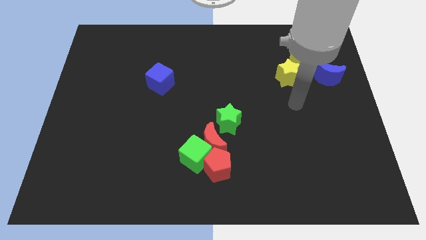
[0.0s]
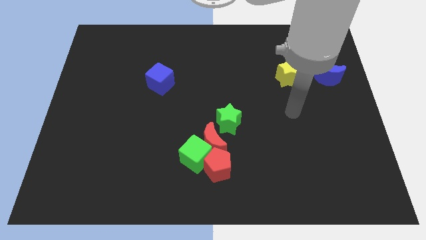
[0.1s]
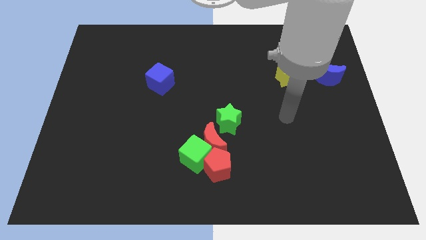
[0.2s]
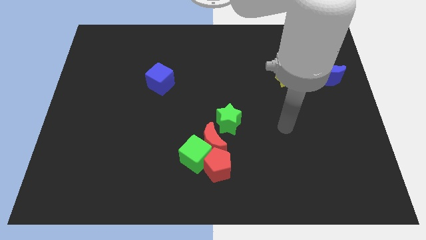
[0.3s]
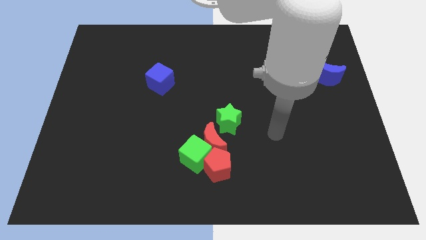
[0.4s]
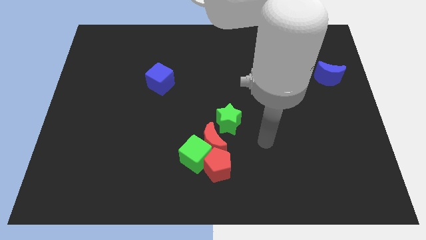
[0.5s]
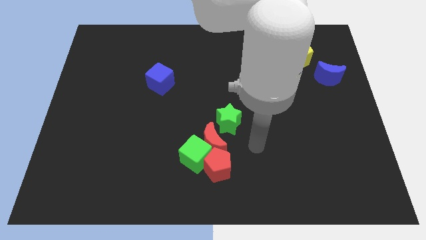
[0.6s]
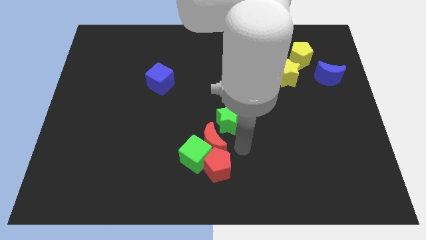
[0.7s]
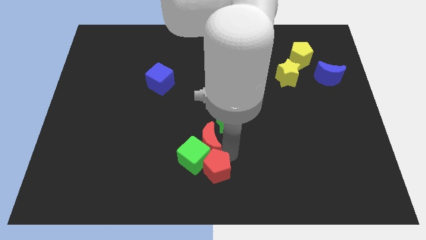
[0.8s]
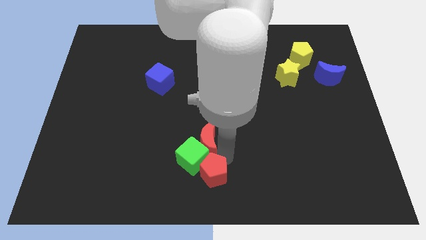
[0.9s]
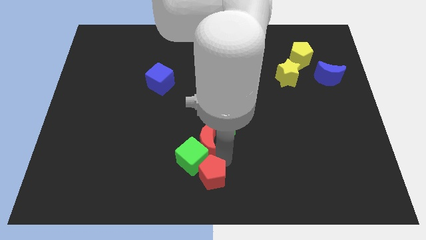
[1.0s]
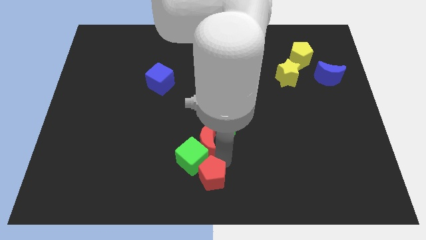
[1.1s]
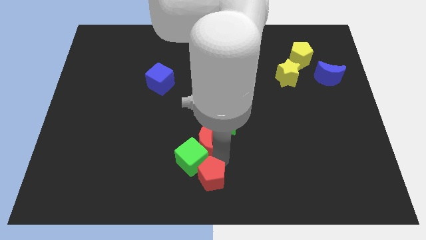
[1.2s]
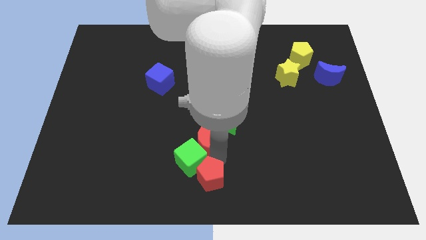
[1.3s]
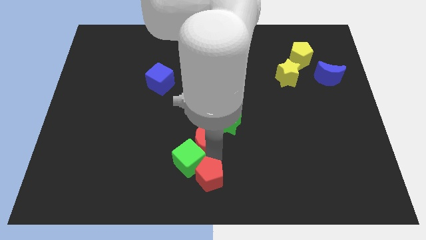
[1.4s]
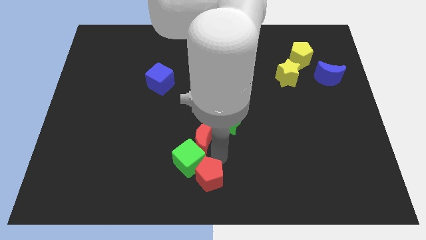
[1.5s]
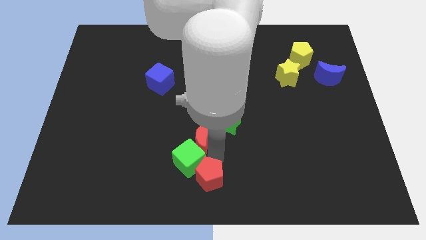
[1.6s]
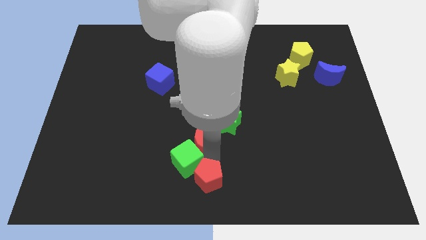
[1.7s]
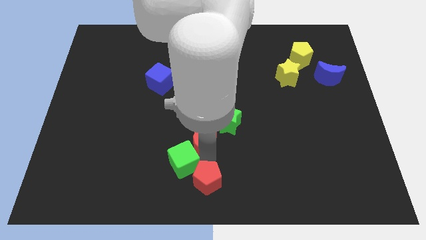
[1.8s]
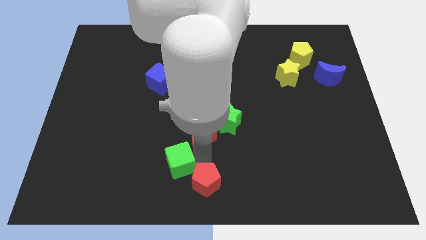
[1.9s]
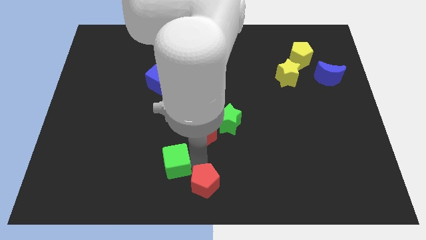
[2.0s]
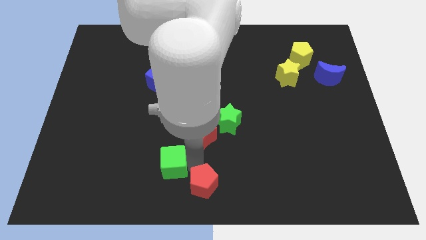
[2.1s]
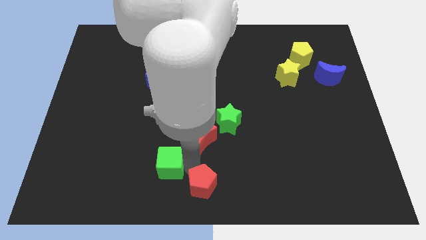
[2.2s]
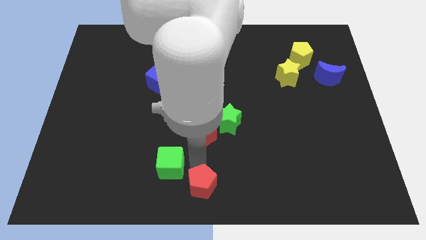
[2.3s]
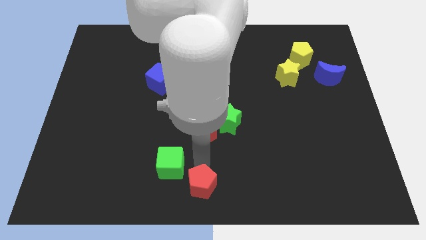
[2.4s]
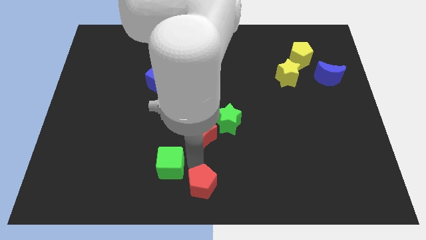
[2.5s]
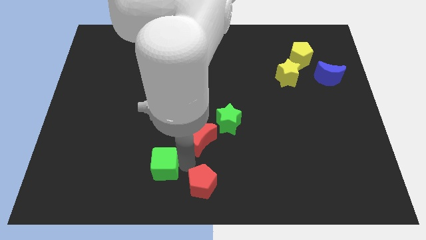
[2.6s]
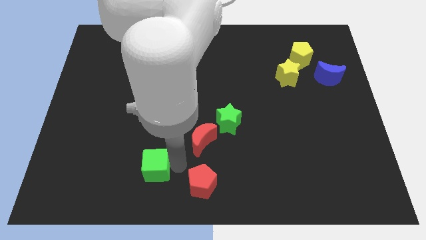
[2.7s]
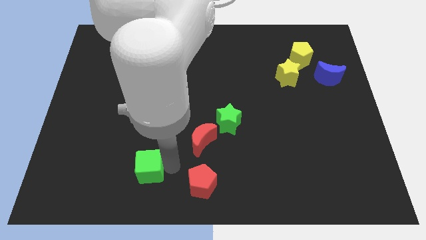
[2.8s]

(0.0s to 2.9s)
separate the green cube from the red moon and red pentagon

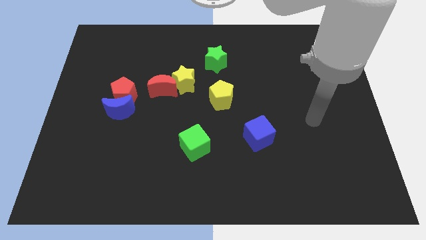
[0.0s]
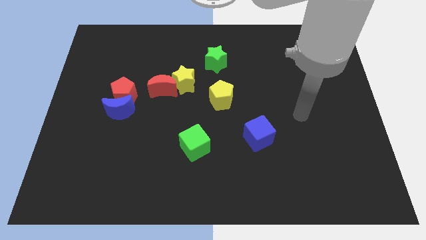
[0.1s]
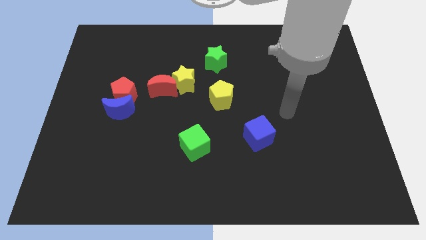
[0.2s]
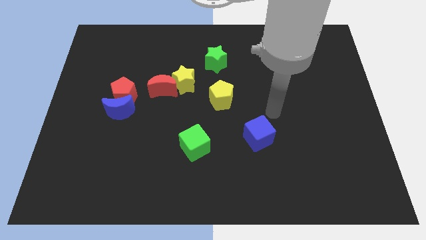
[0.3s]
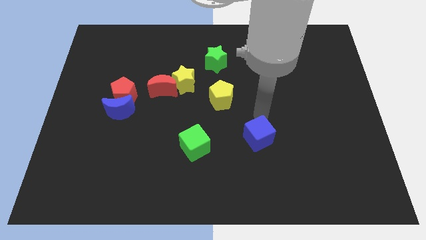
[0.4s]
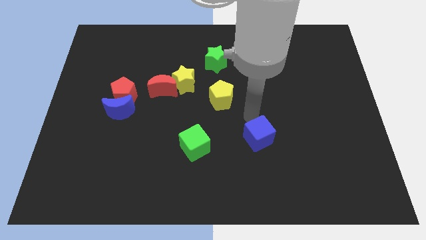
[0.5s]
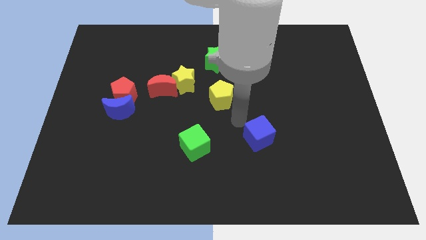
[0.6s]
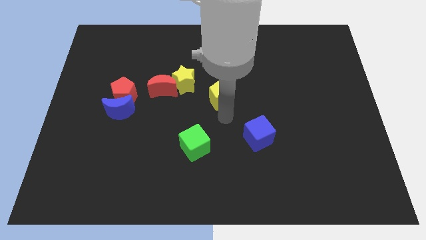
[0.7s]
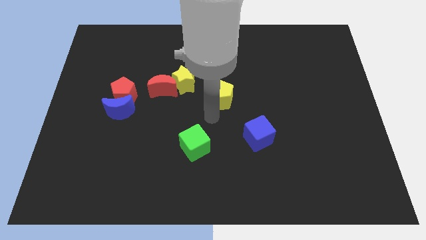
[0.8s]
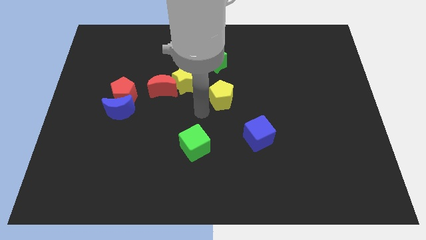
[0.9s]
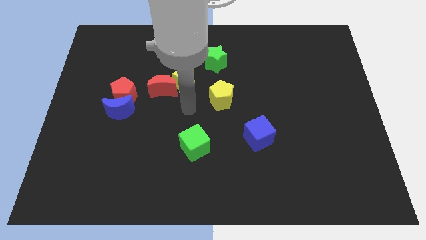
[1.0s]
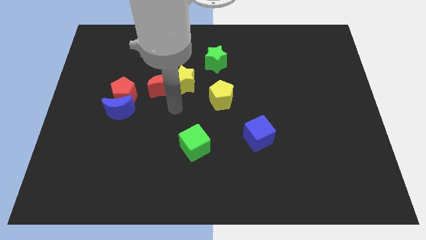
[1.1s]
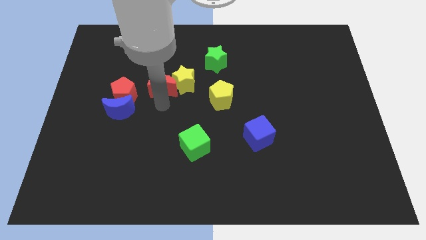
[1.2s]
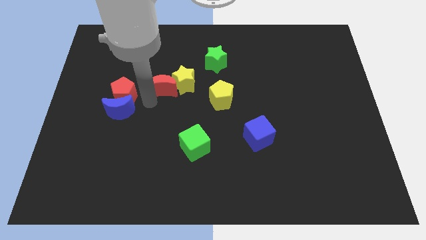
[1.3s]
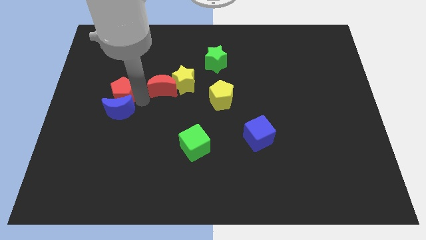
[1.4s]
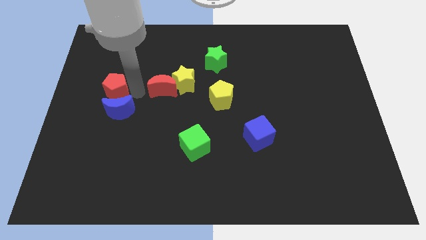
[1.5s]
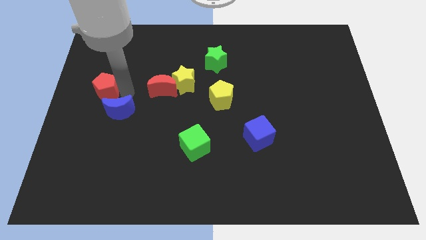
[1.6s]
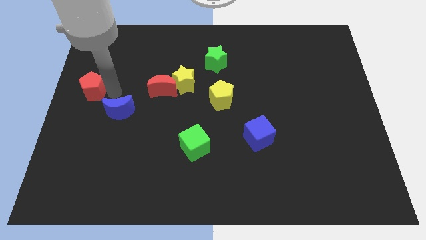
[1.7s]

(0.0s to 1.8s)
separate the blue moon from the red pentagon

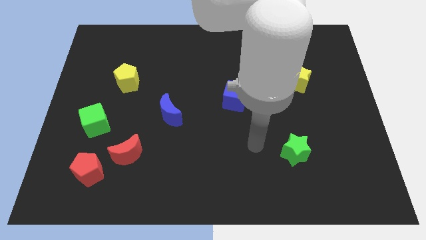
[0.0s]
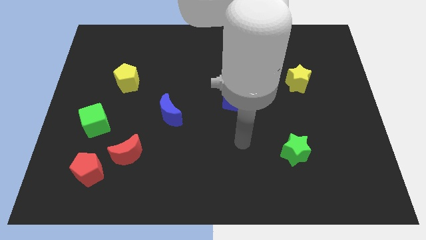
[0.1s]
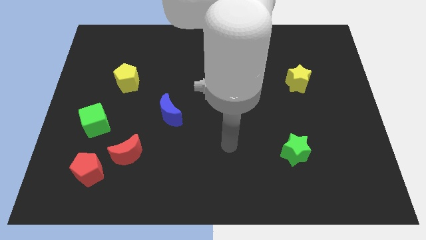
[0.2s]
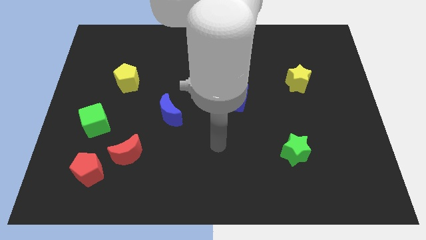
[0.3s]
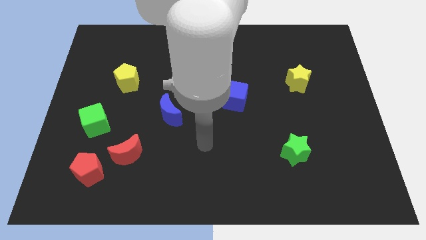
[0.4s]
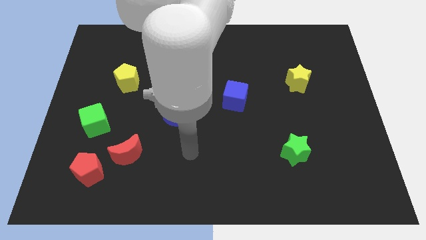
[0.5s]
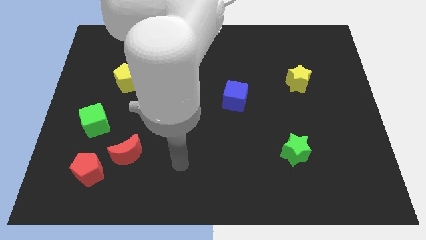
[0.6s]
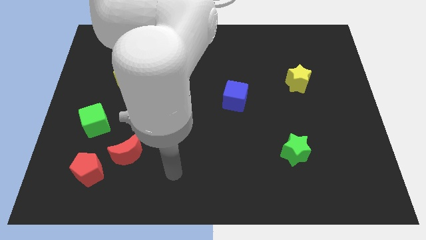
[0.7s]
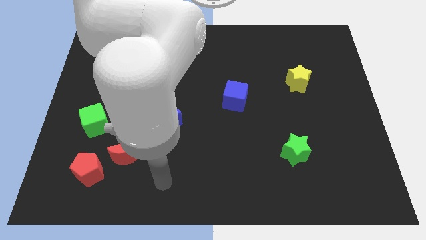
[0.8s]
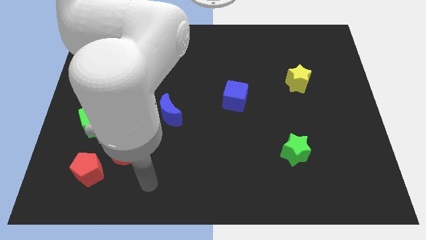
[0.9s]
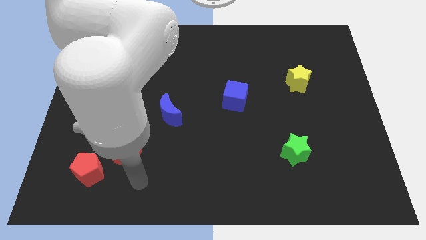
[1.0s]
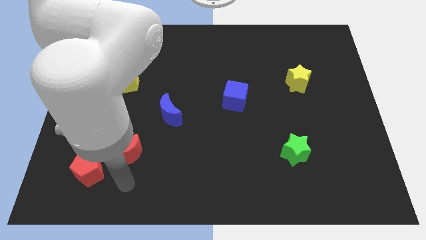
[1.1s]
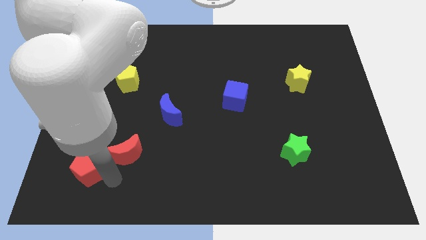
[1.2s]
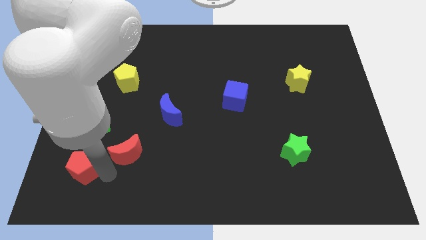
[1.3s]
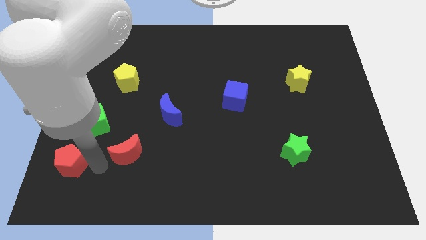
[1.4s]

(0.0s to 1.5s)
pull the red moon apart from the red pentagon

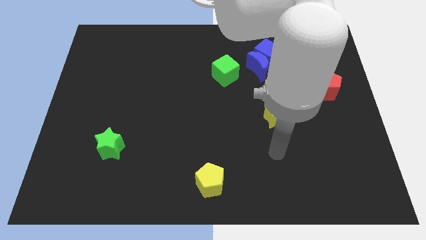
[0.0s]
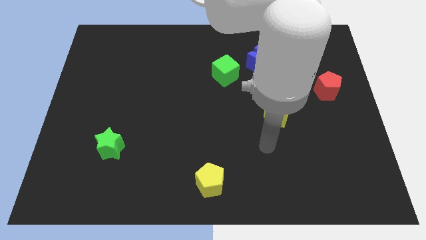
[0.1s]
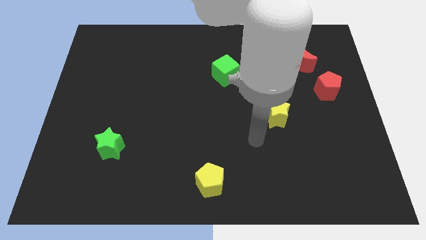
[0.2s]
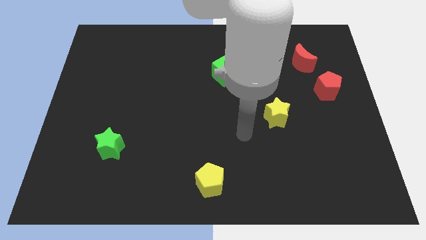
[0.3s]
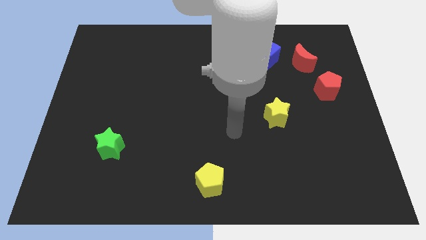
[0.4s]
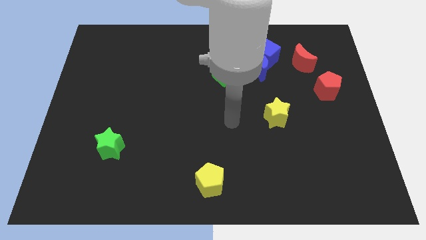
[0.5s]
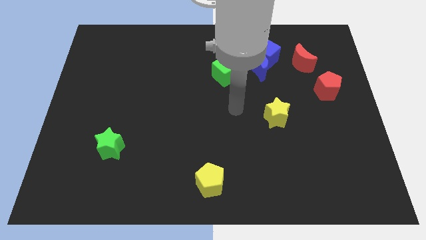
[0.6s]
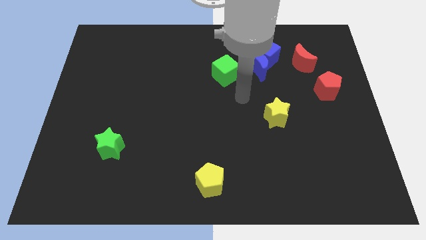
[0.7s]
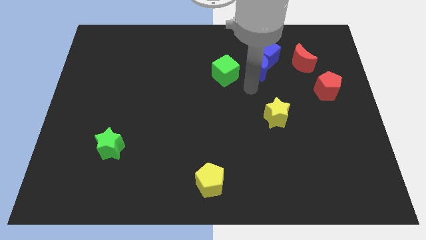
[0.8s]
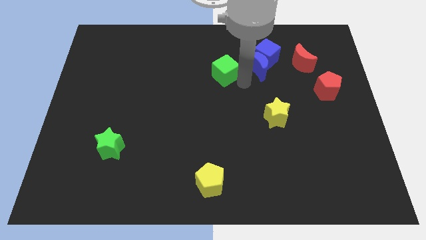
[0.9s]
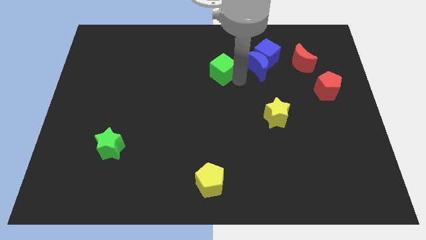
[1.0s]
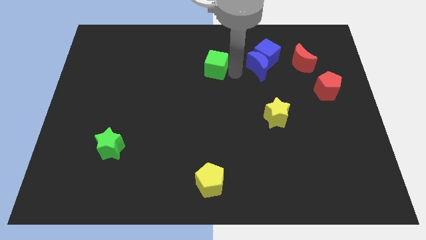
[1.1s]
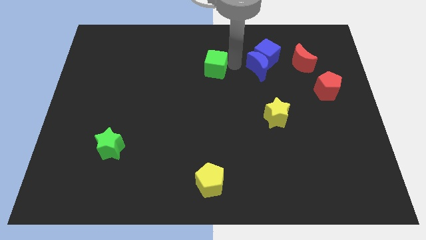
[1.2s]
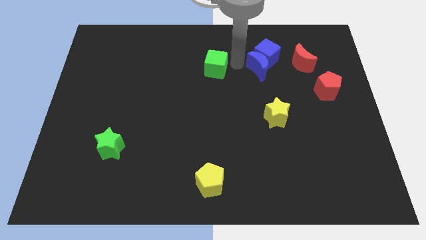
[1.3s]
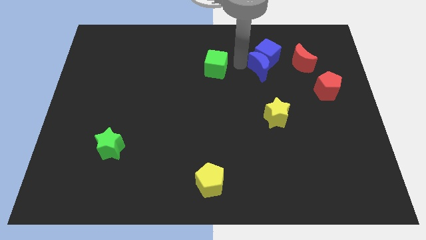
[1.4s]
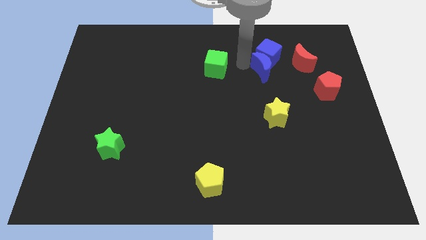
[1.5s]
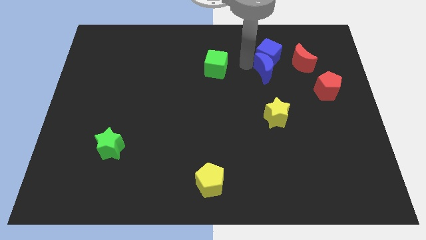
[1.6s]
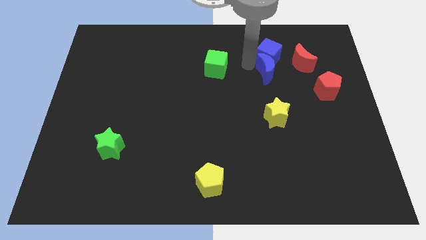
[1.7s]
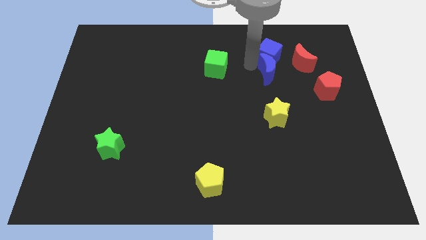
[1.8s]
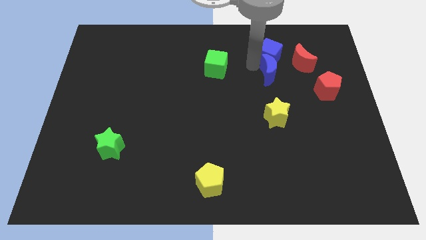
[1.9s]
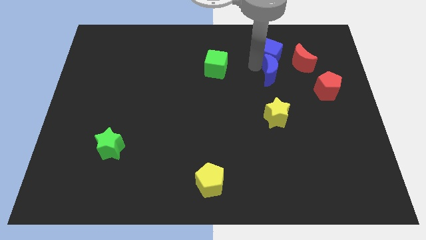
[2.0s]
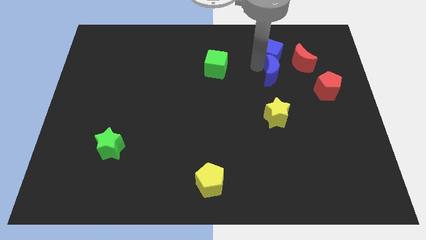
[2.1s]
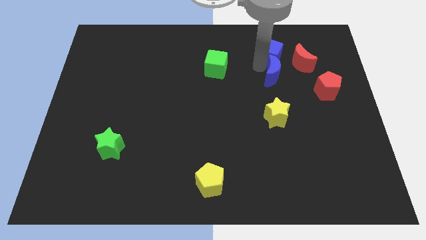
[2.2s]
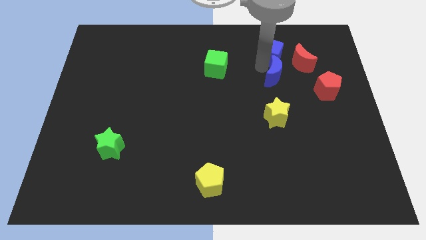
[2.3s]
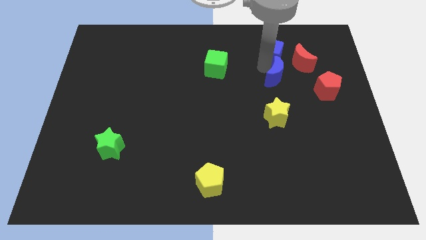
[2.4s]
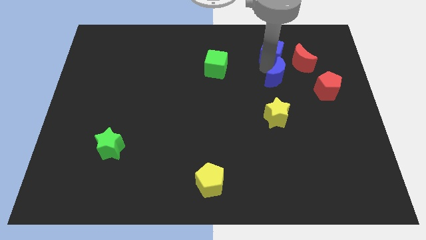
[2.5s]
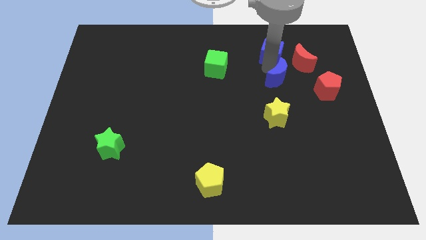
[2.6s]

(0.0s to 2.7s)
pull the blue moon apart from the blue cube and green cube

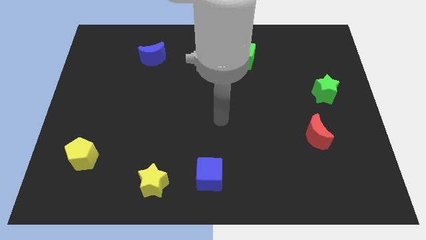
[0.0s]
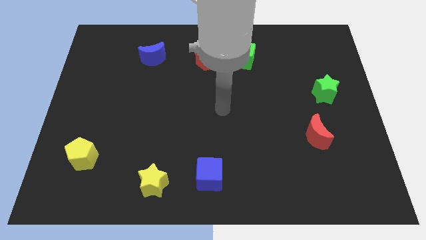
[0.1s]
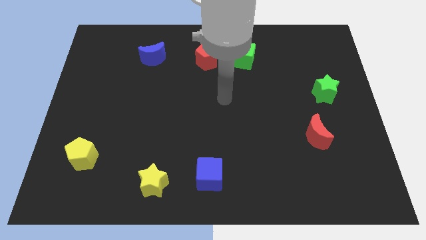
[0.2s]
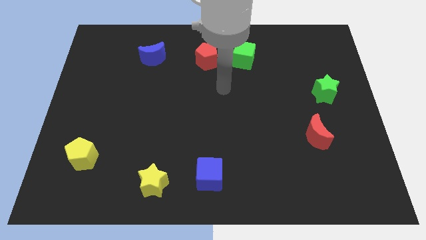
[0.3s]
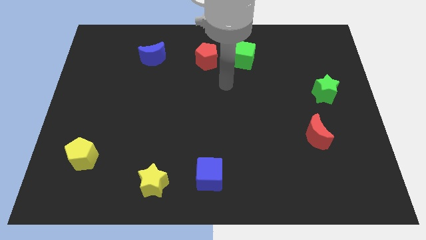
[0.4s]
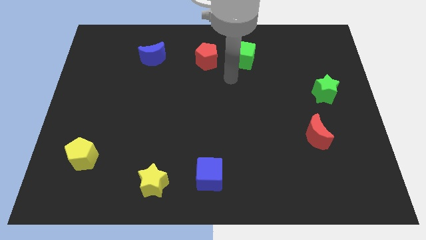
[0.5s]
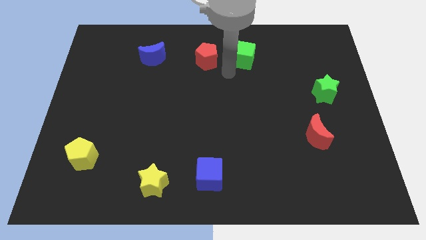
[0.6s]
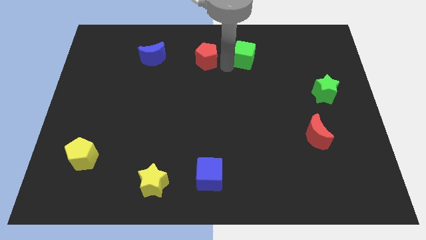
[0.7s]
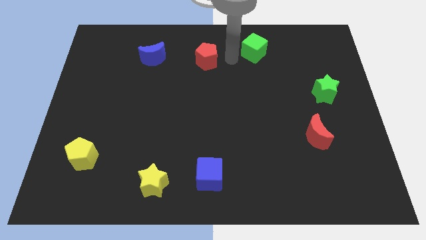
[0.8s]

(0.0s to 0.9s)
pull the red pentagon apart from the green cube
